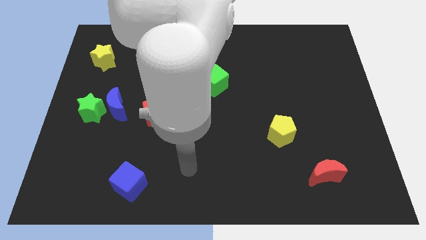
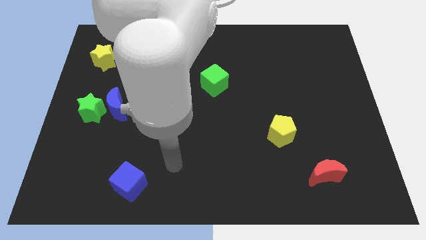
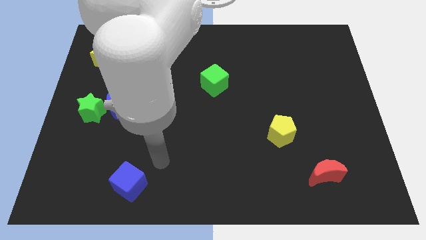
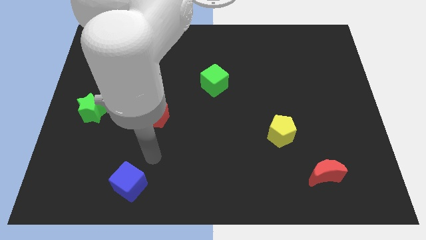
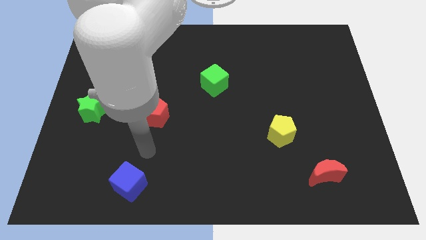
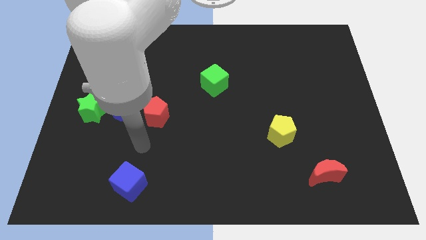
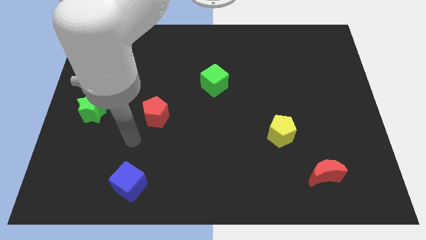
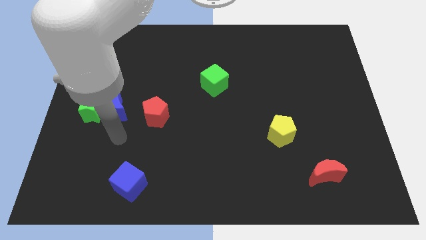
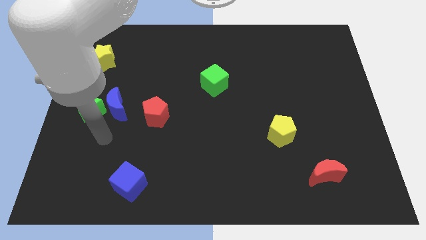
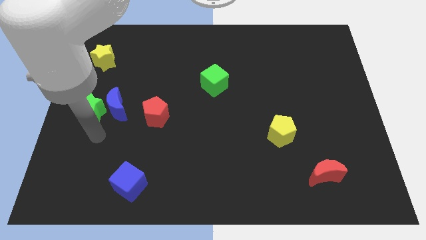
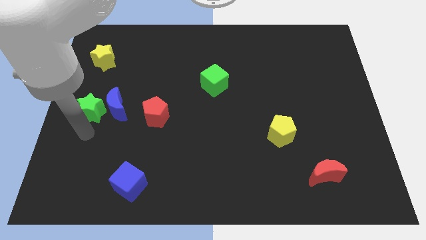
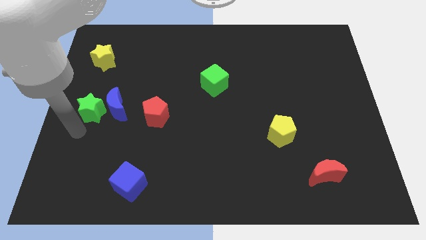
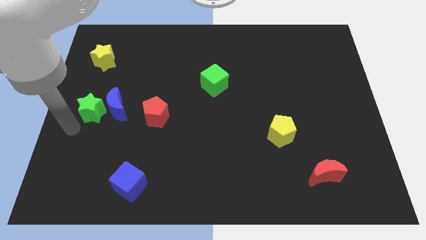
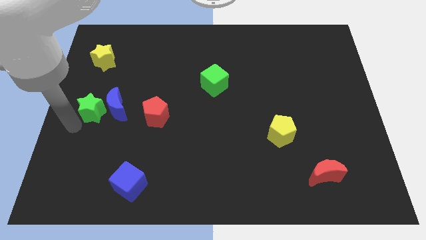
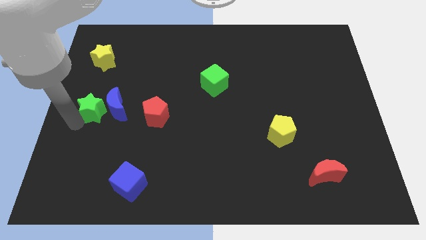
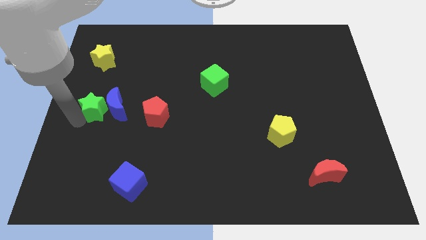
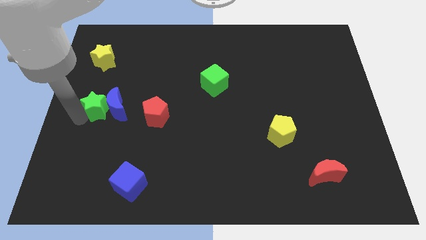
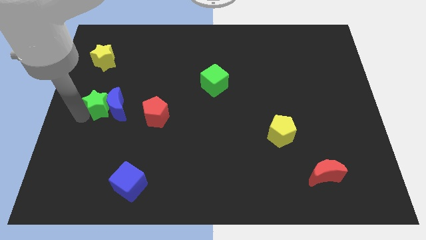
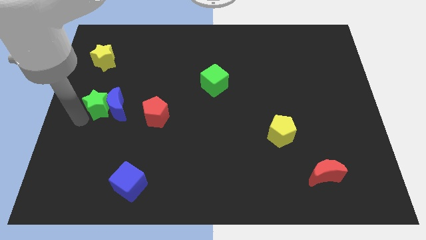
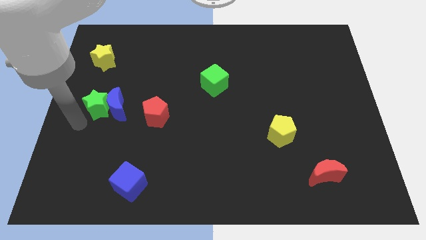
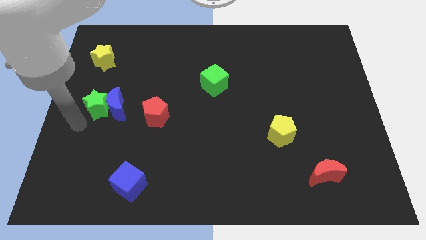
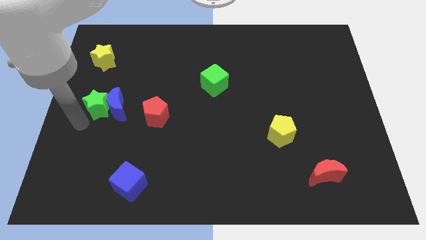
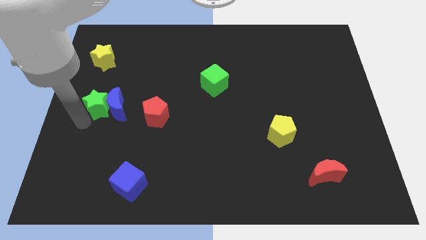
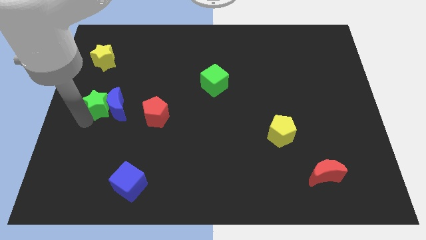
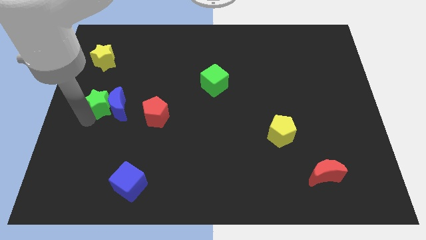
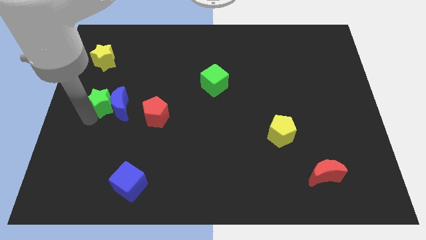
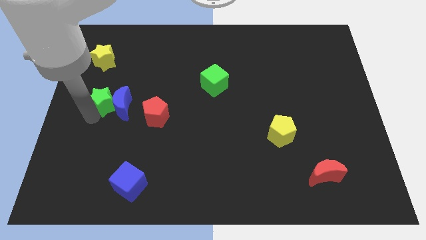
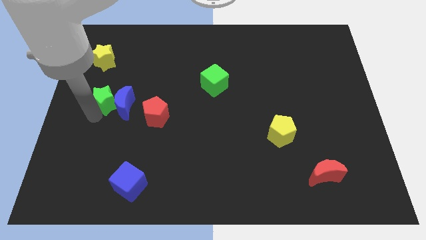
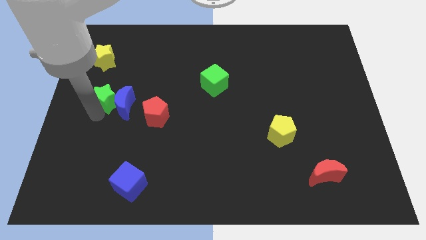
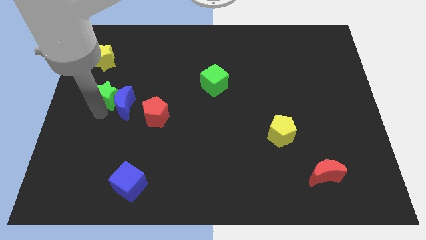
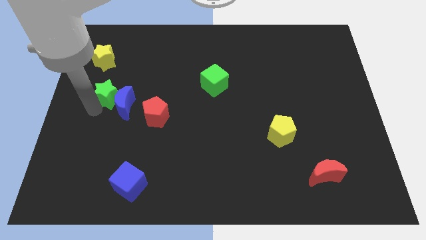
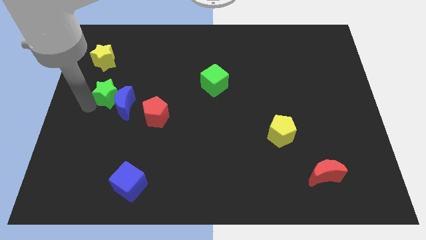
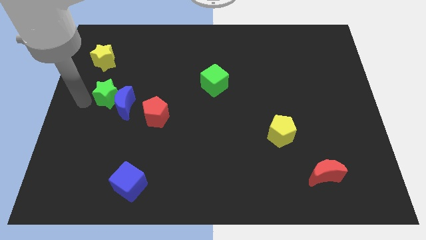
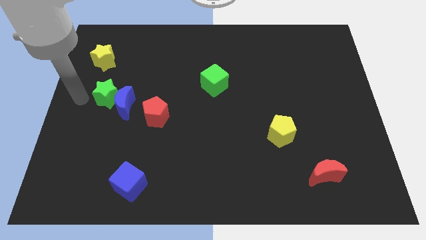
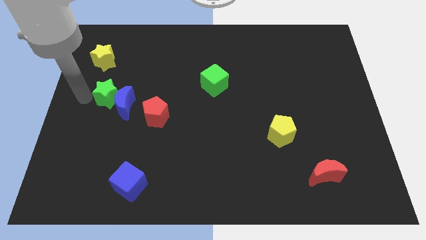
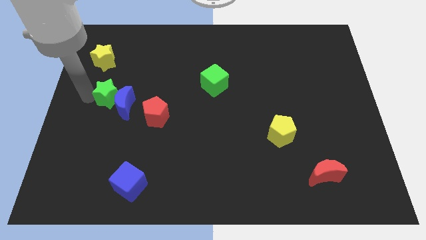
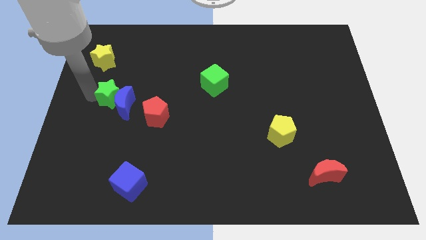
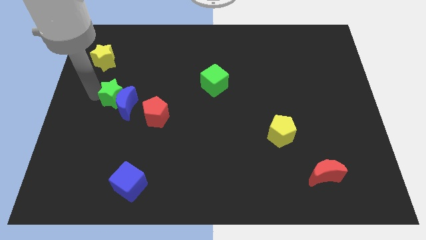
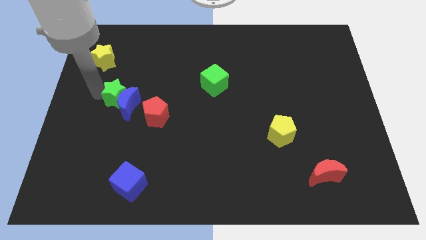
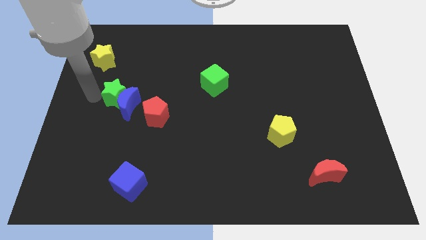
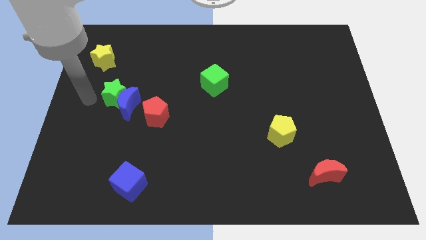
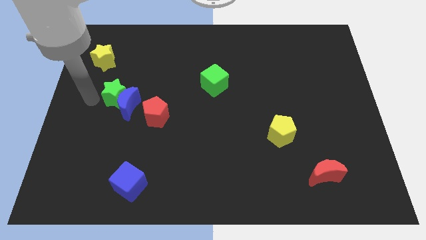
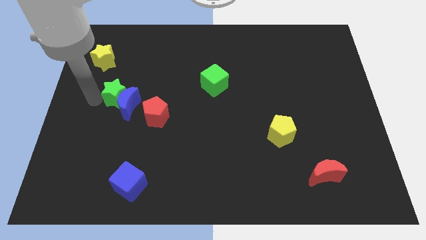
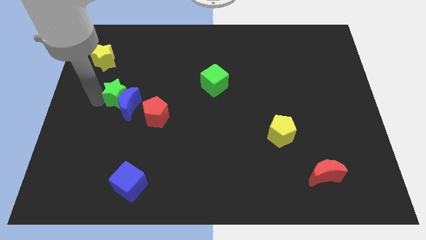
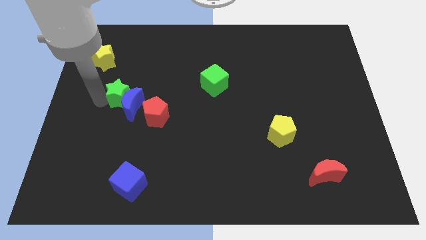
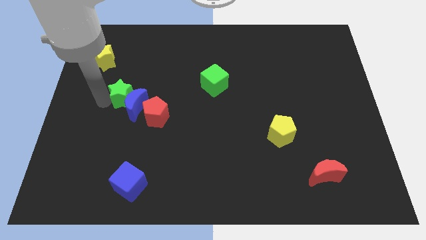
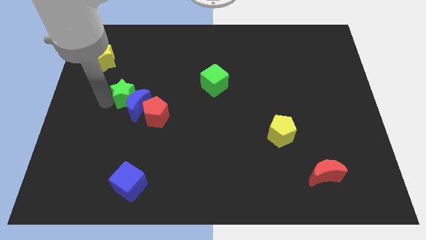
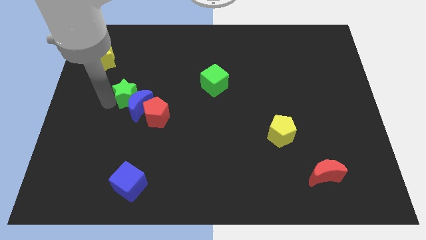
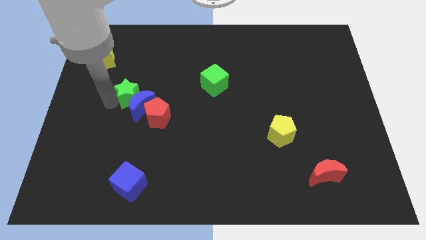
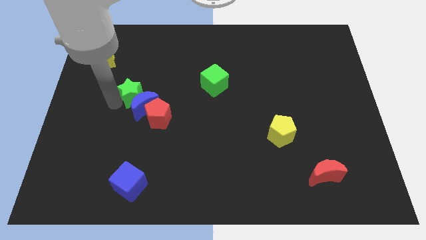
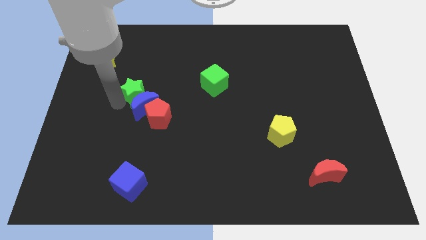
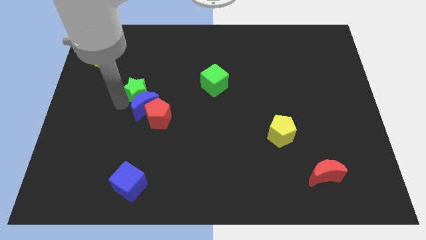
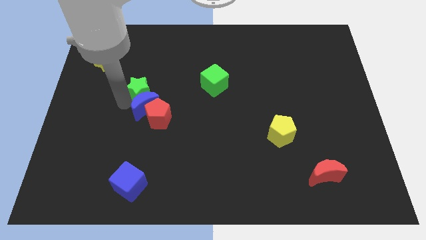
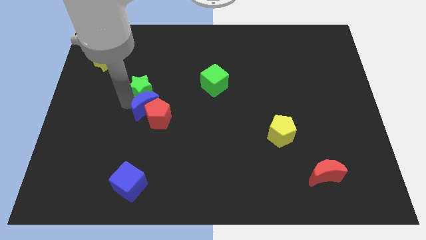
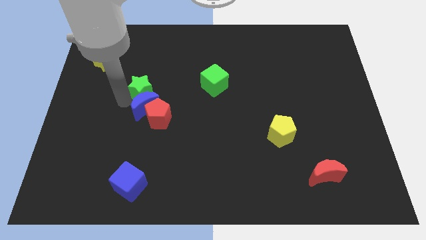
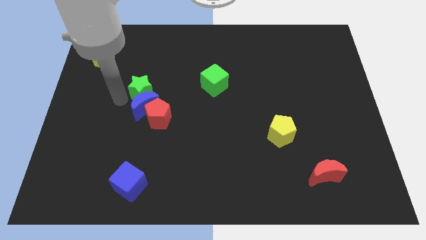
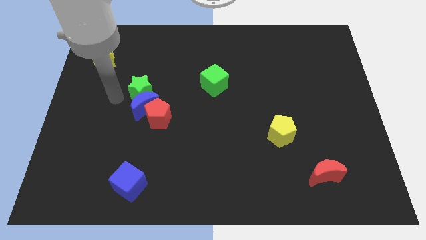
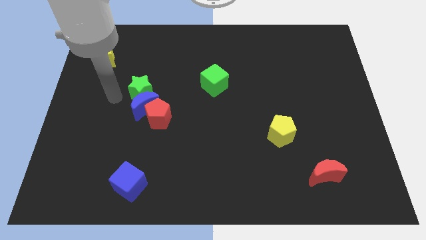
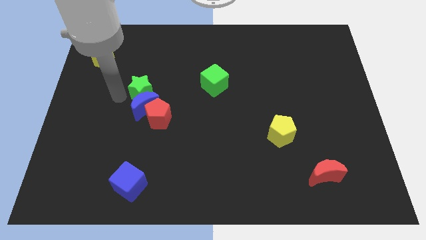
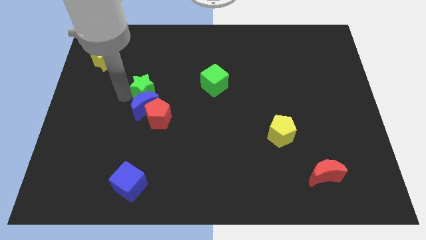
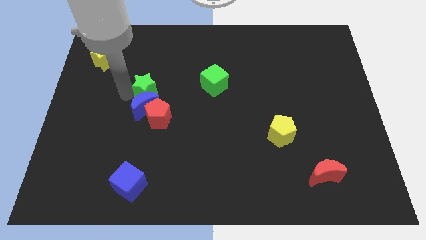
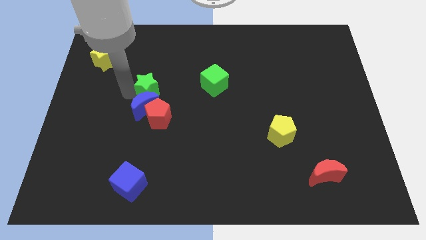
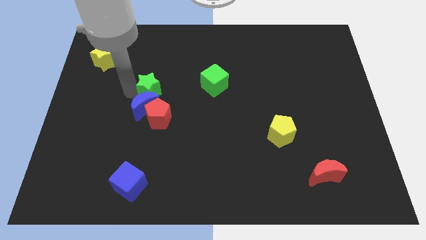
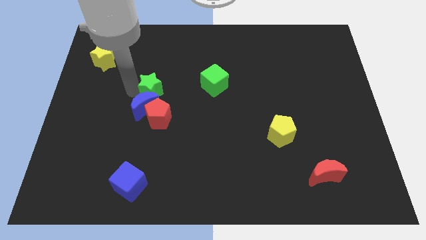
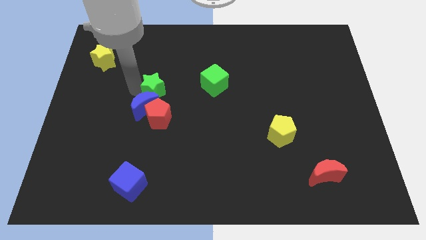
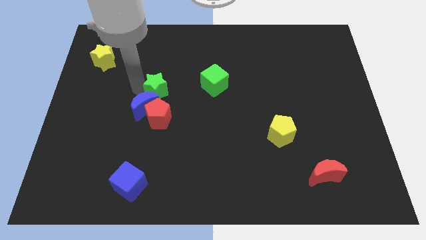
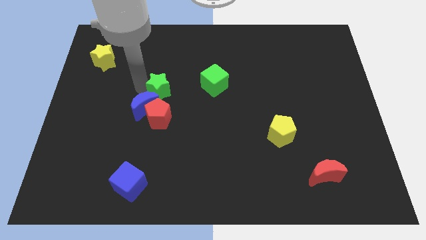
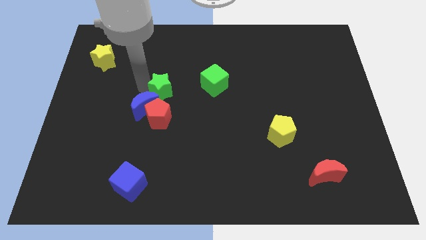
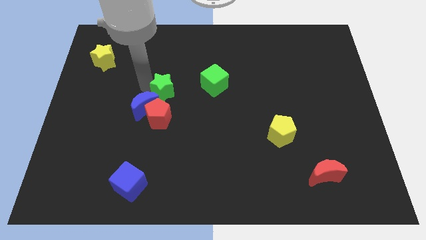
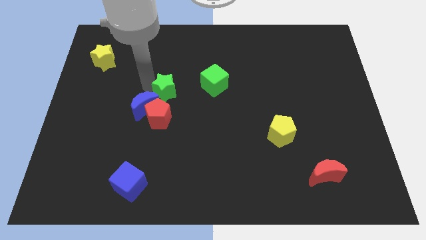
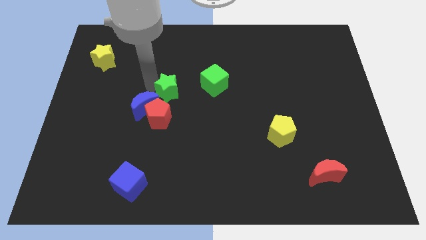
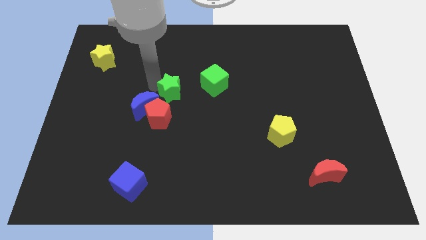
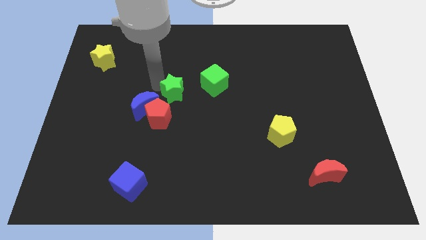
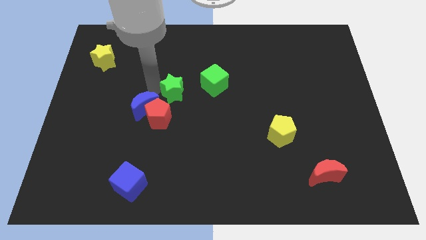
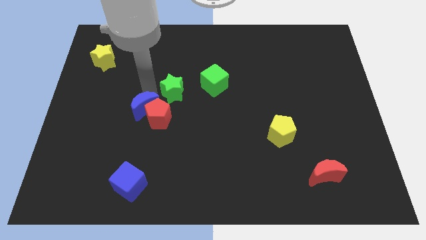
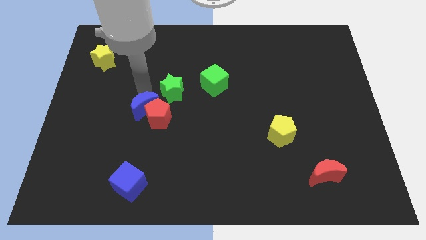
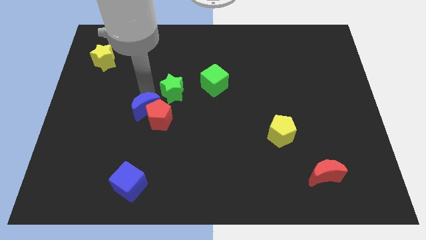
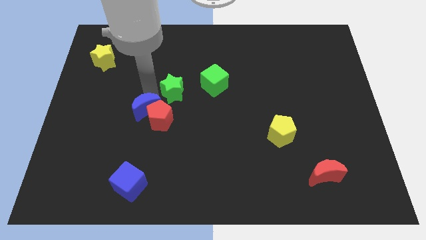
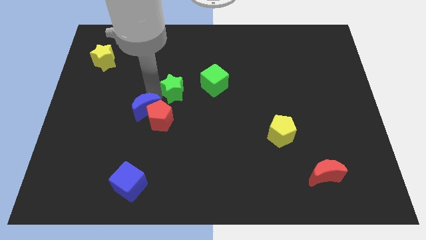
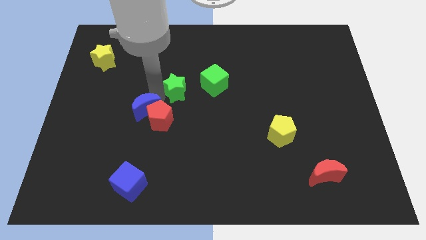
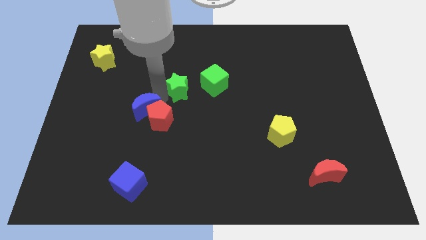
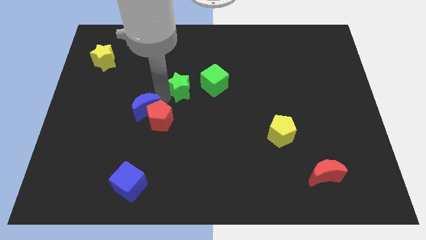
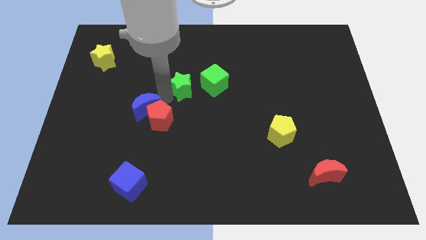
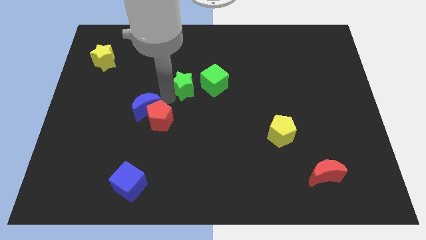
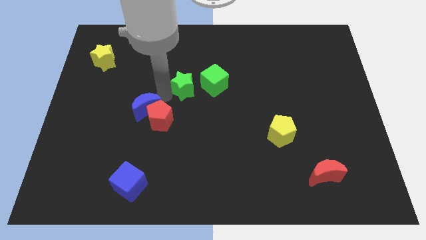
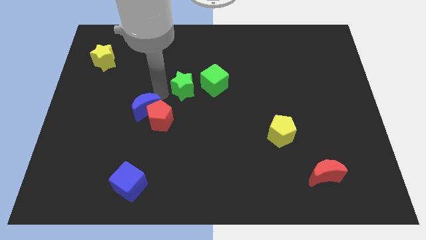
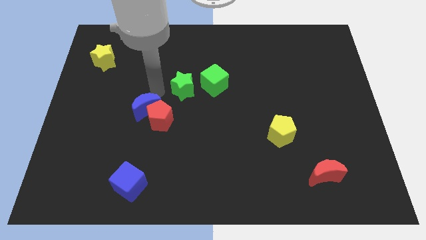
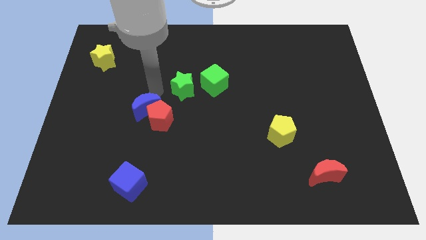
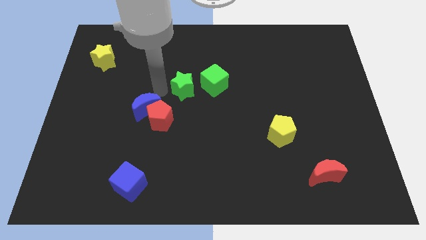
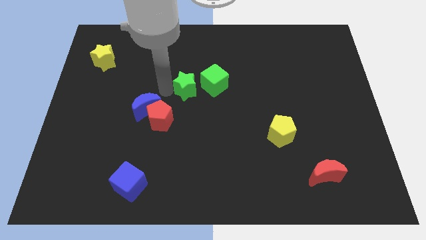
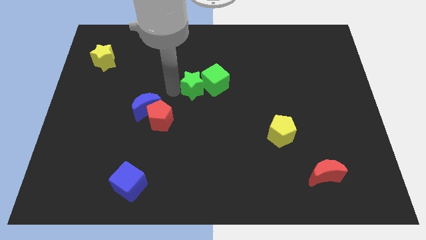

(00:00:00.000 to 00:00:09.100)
slide the green star next to the green cube
